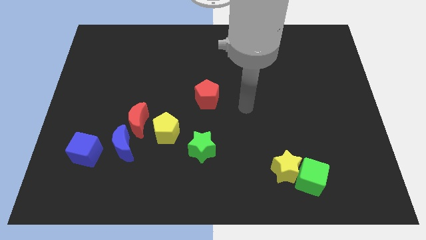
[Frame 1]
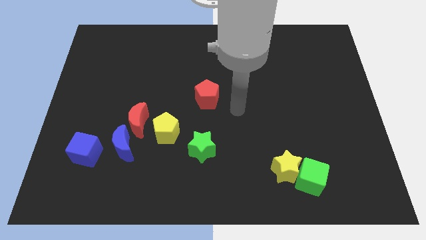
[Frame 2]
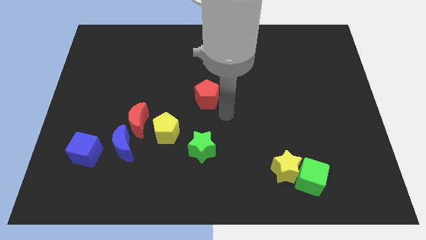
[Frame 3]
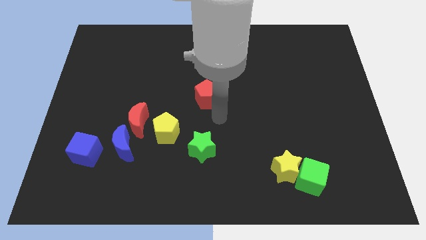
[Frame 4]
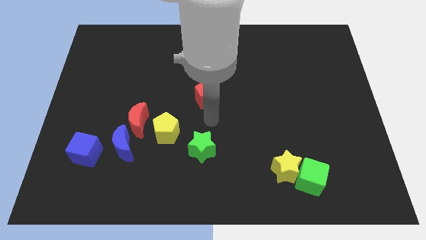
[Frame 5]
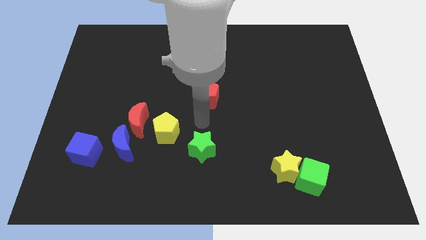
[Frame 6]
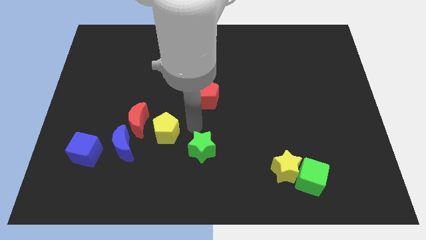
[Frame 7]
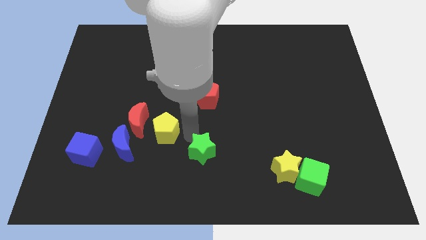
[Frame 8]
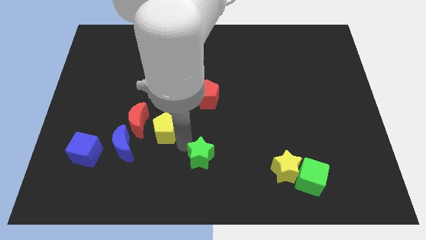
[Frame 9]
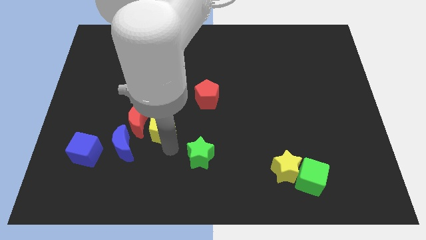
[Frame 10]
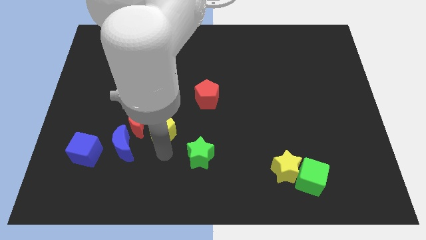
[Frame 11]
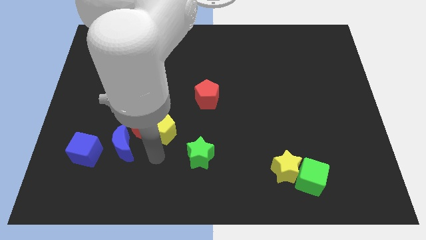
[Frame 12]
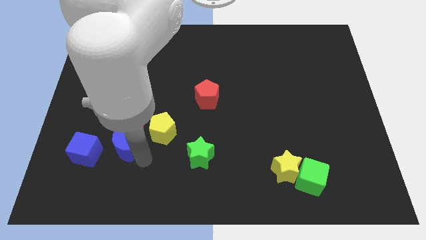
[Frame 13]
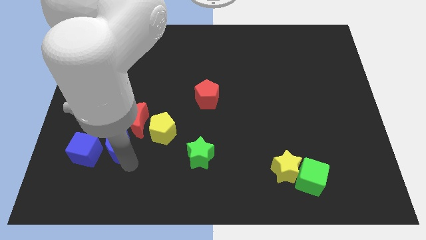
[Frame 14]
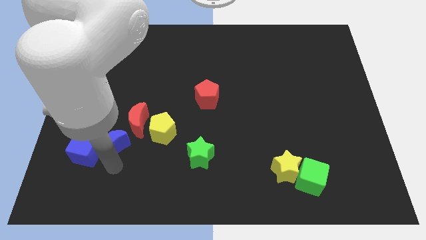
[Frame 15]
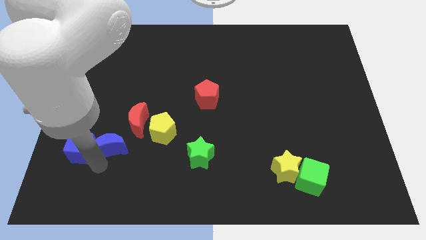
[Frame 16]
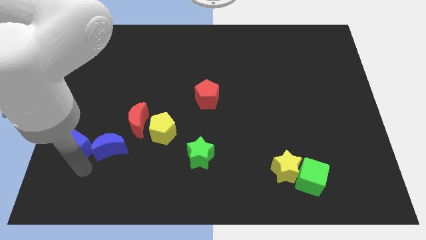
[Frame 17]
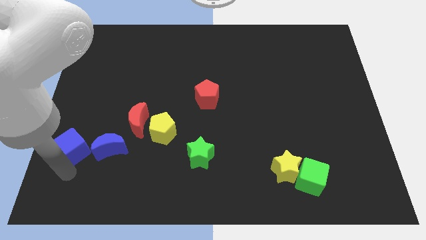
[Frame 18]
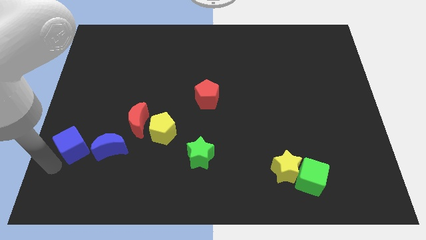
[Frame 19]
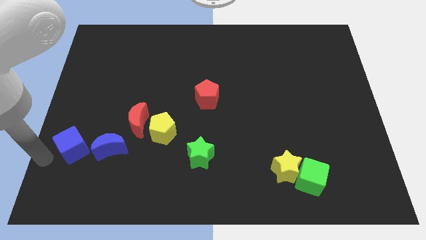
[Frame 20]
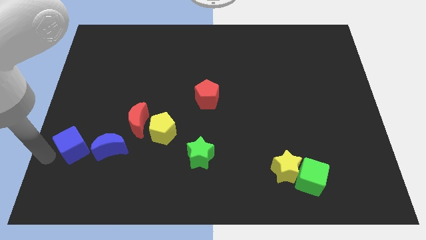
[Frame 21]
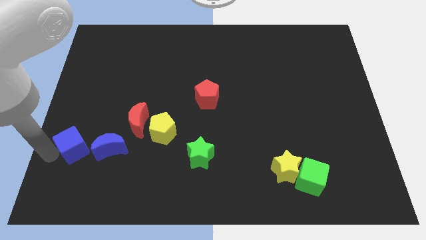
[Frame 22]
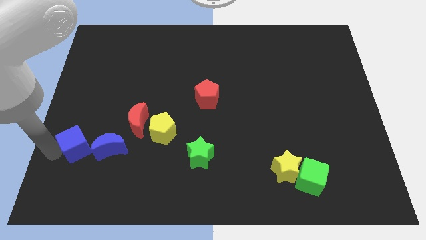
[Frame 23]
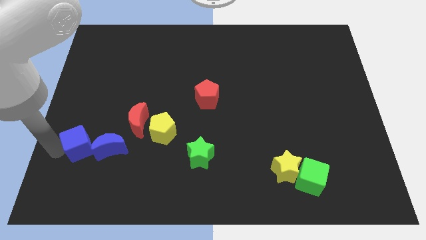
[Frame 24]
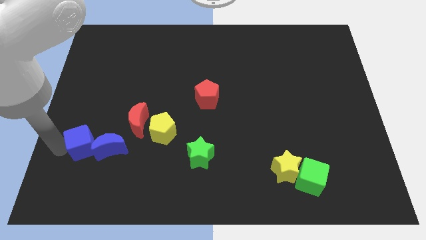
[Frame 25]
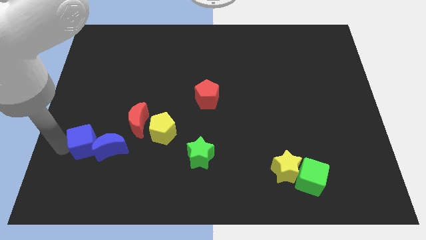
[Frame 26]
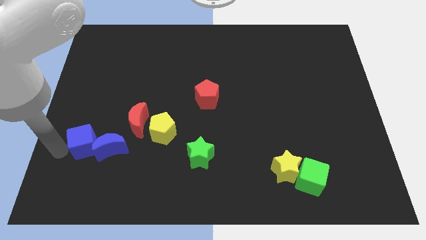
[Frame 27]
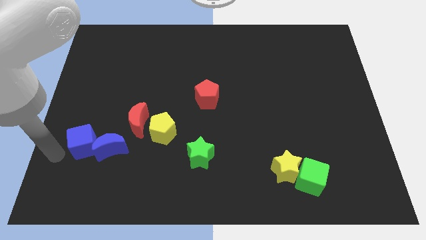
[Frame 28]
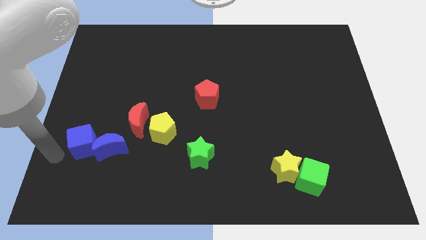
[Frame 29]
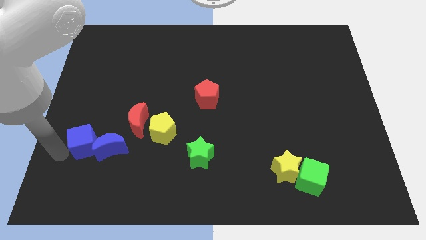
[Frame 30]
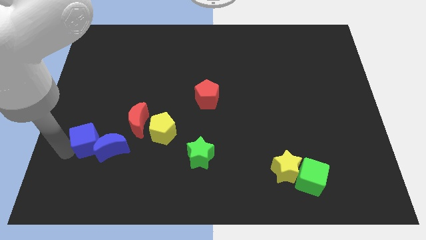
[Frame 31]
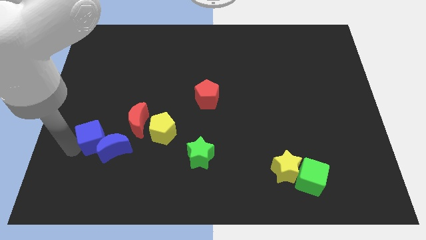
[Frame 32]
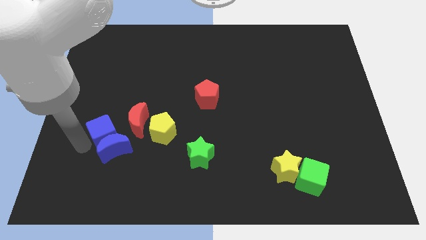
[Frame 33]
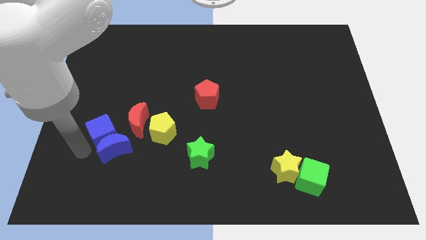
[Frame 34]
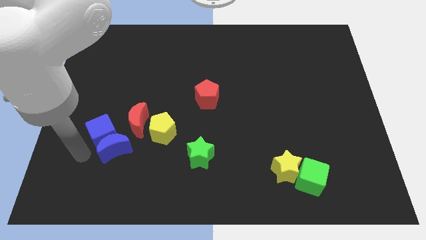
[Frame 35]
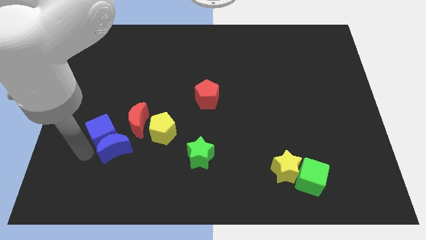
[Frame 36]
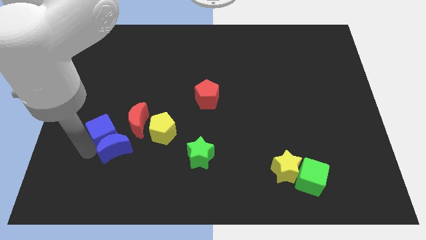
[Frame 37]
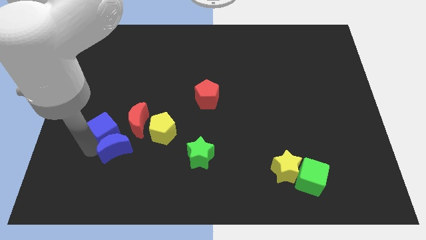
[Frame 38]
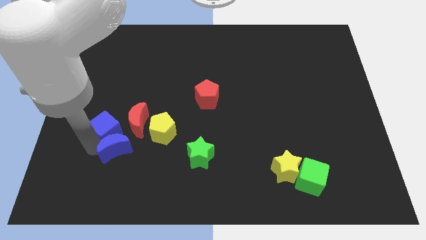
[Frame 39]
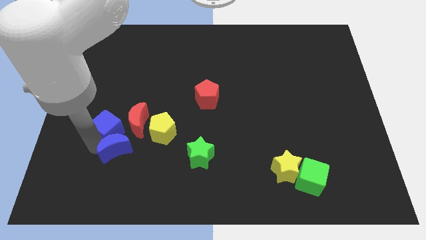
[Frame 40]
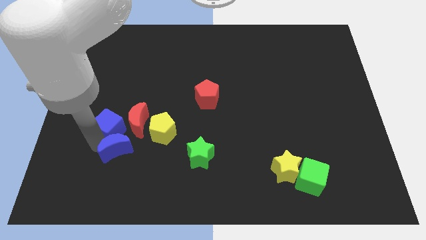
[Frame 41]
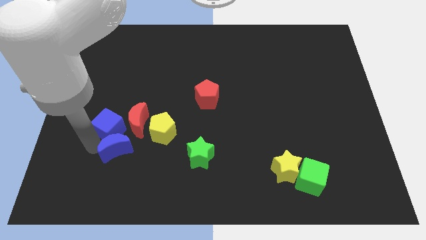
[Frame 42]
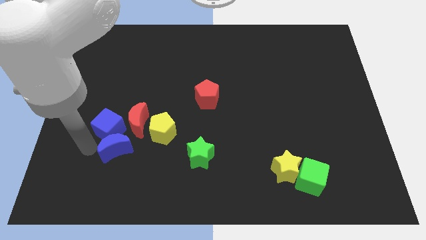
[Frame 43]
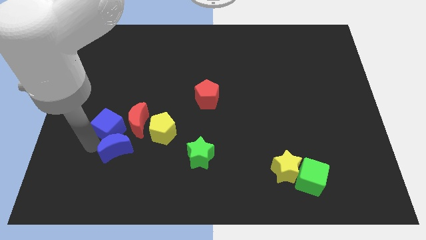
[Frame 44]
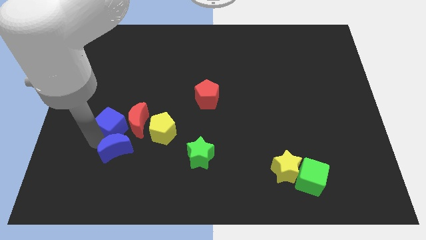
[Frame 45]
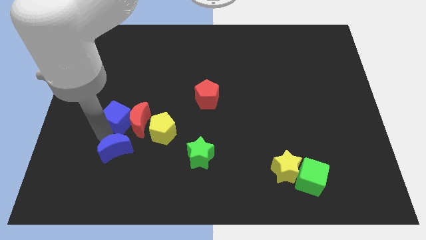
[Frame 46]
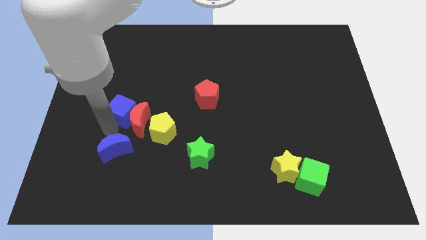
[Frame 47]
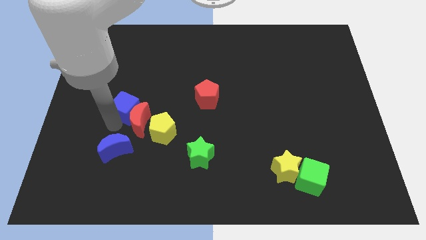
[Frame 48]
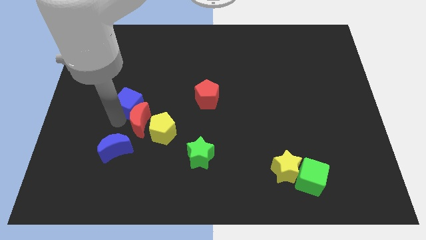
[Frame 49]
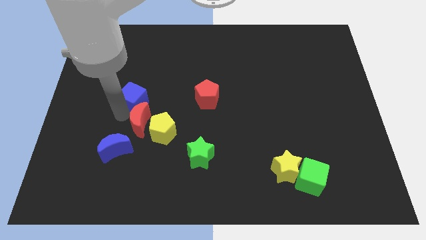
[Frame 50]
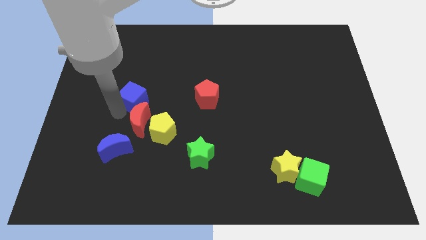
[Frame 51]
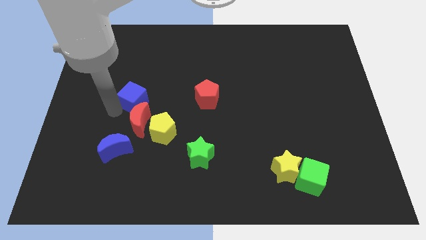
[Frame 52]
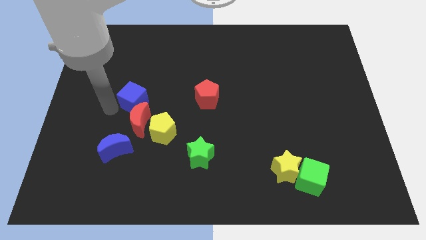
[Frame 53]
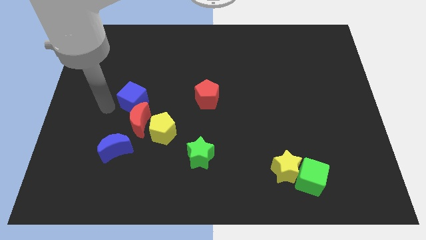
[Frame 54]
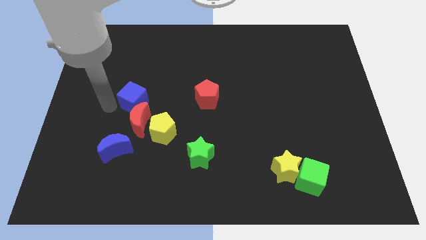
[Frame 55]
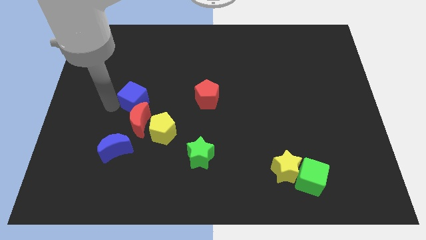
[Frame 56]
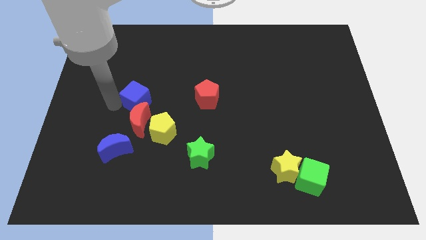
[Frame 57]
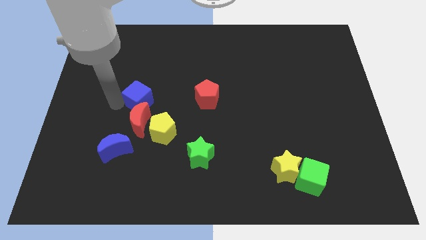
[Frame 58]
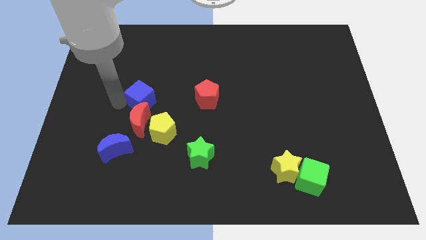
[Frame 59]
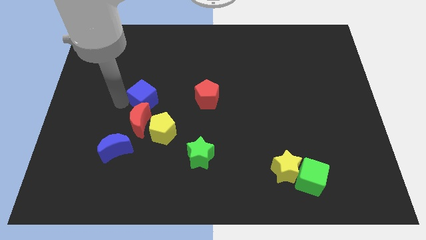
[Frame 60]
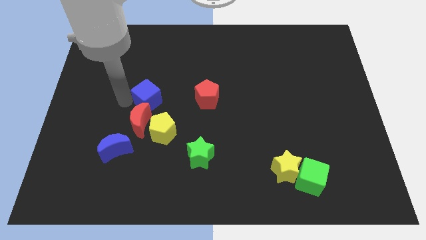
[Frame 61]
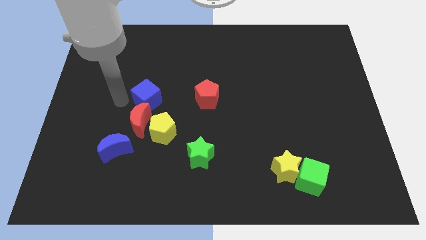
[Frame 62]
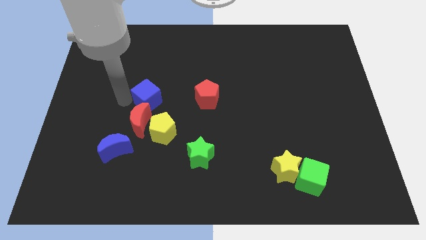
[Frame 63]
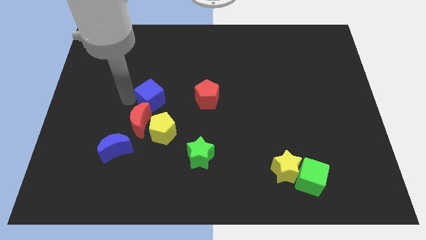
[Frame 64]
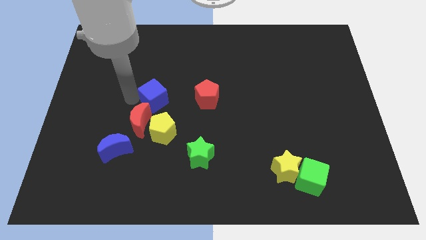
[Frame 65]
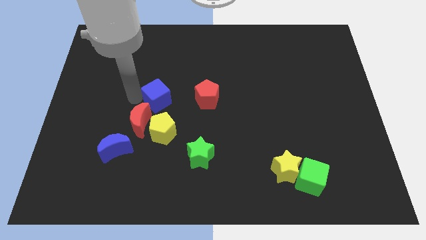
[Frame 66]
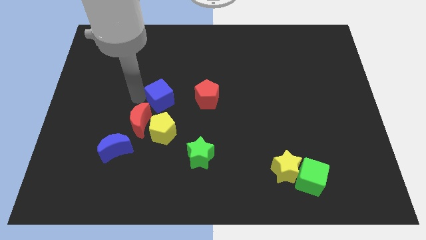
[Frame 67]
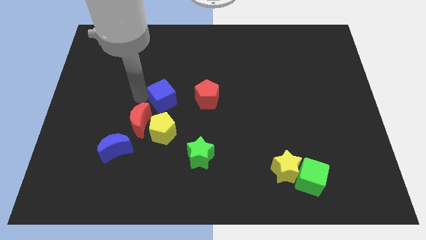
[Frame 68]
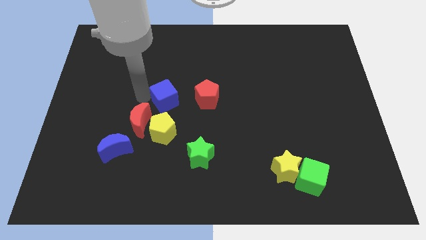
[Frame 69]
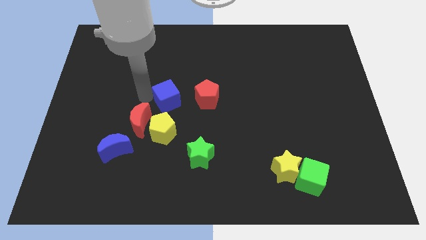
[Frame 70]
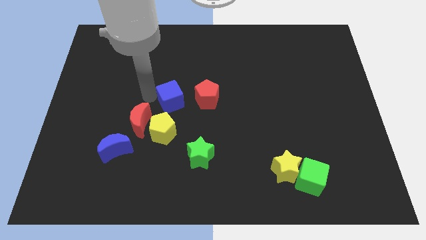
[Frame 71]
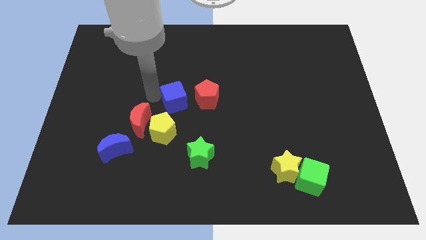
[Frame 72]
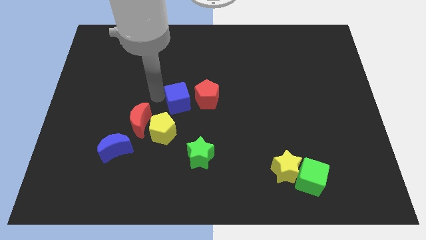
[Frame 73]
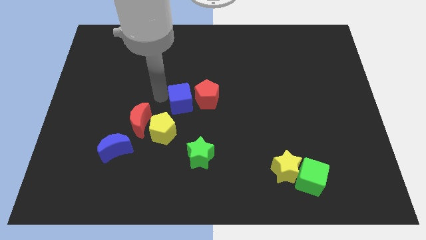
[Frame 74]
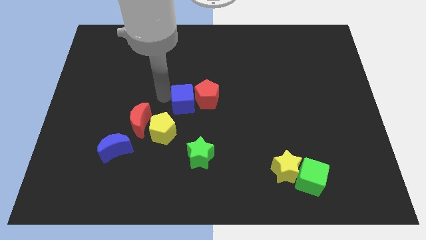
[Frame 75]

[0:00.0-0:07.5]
move the blue cube close to the red pentagon
